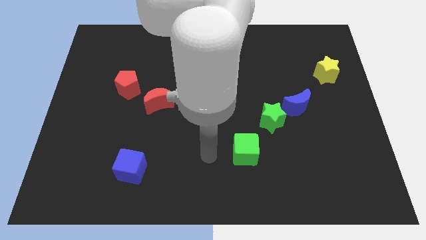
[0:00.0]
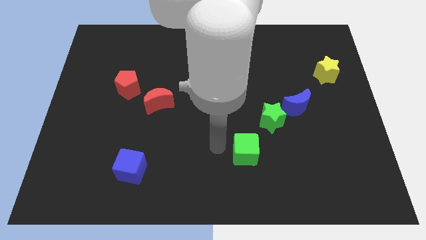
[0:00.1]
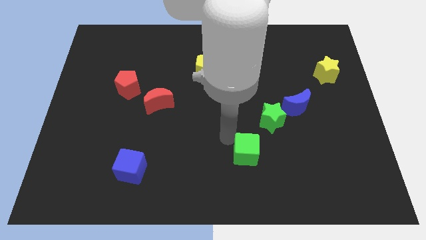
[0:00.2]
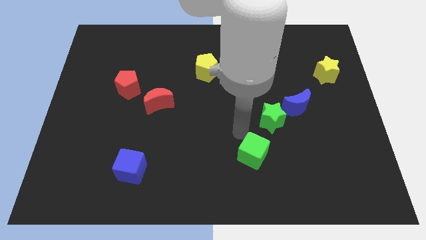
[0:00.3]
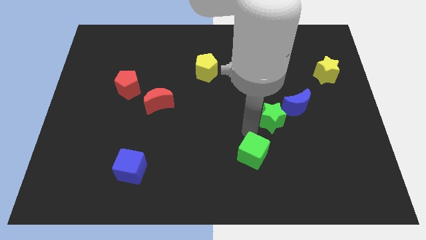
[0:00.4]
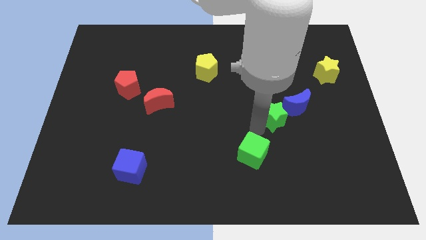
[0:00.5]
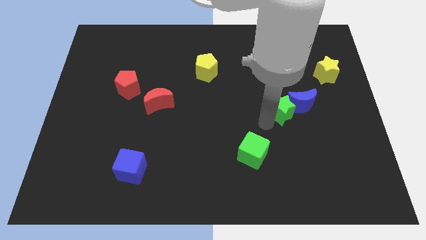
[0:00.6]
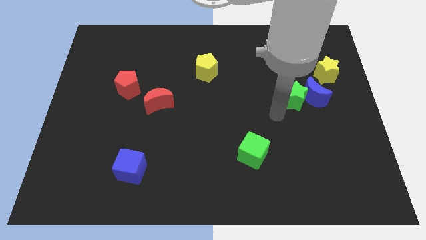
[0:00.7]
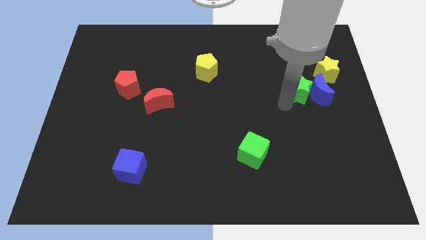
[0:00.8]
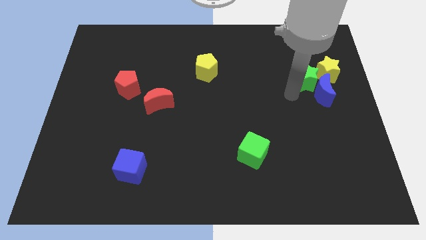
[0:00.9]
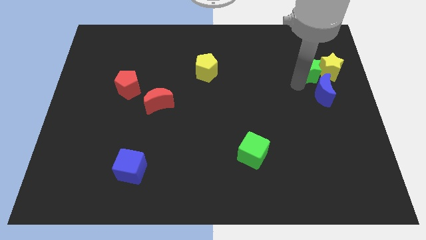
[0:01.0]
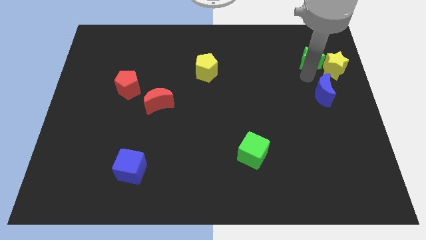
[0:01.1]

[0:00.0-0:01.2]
pull the blue moon apart from the green star

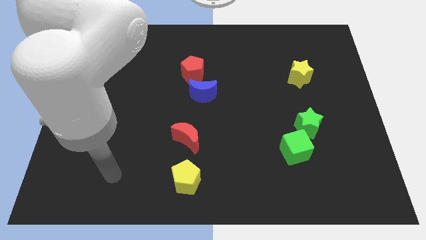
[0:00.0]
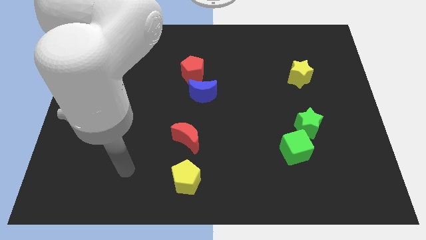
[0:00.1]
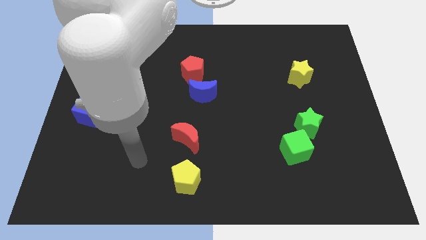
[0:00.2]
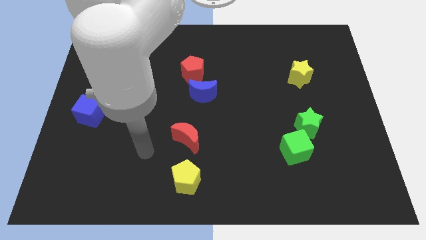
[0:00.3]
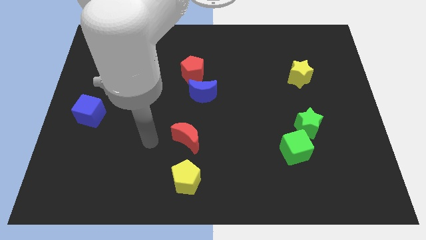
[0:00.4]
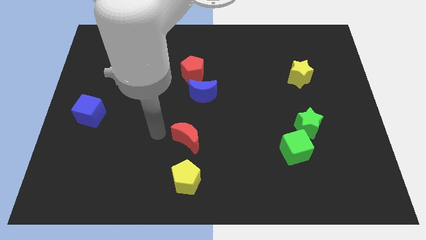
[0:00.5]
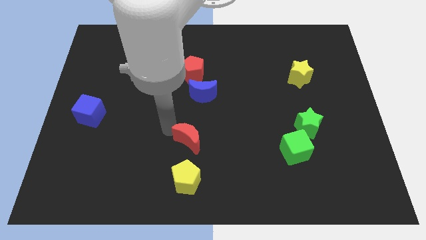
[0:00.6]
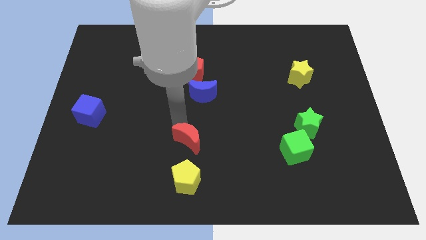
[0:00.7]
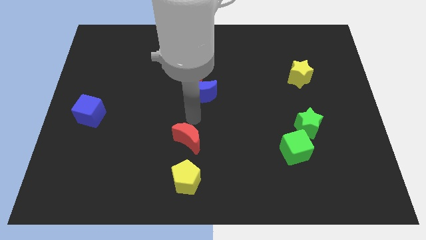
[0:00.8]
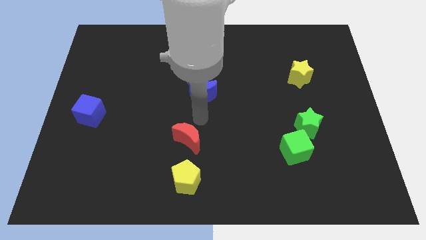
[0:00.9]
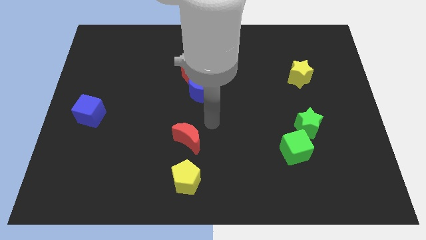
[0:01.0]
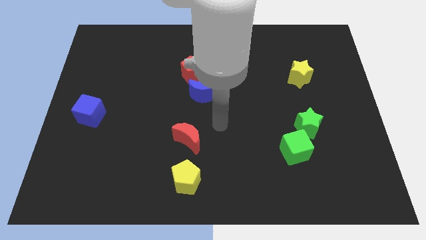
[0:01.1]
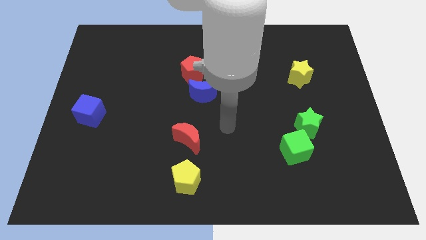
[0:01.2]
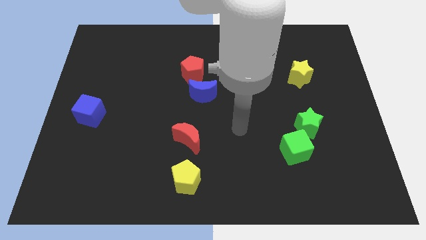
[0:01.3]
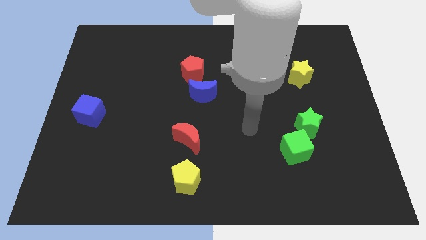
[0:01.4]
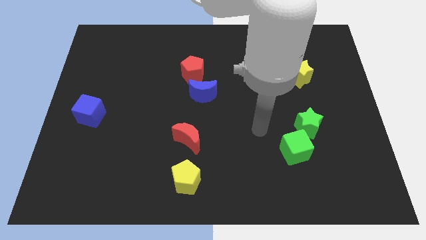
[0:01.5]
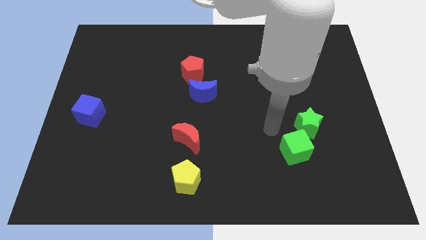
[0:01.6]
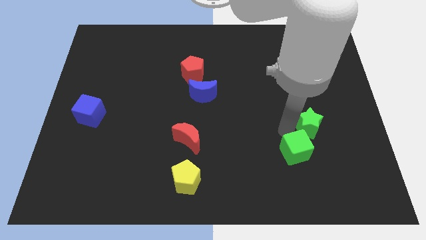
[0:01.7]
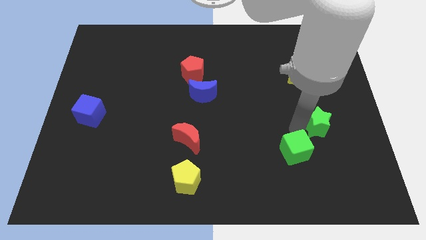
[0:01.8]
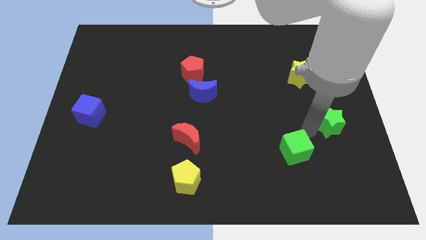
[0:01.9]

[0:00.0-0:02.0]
move the green cube away from the green star

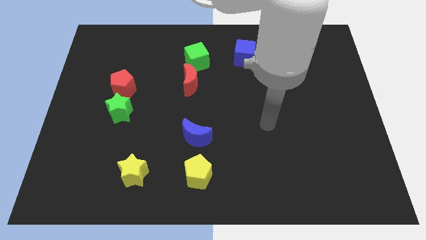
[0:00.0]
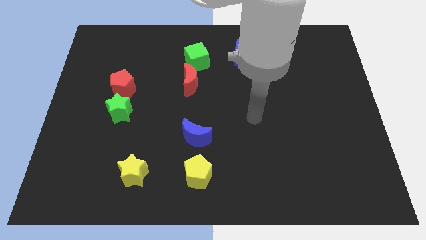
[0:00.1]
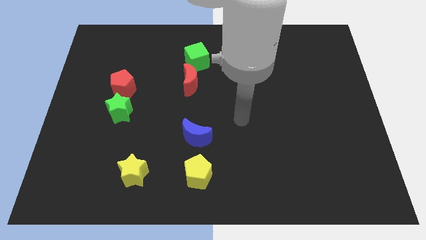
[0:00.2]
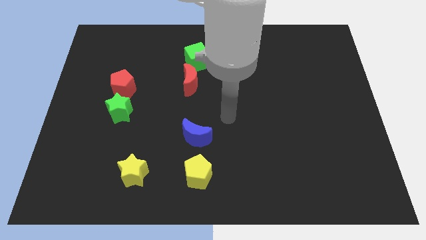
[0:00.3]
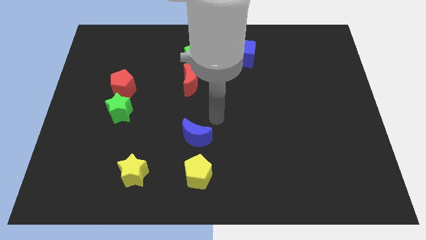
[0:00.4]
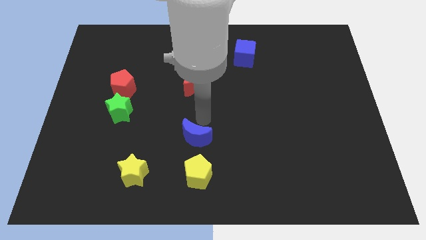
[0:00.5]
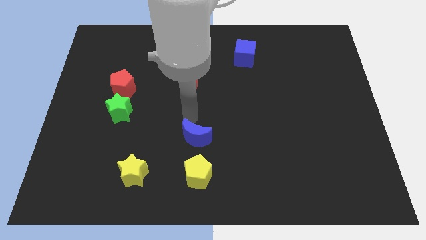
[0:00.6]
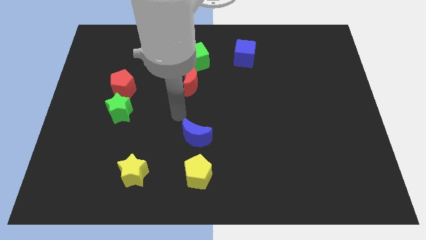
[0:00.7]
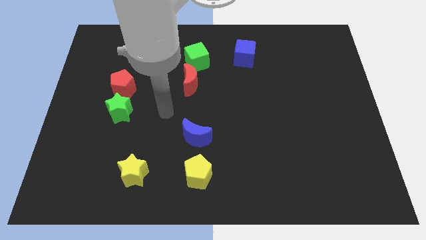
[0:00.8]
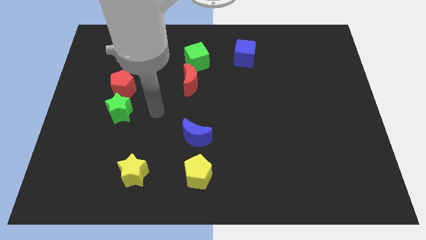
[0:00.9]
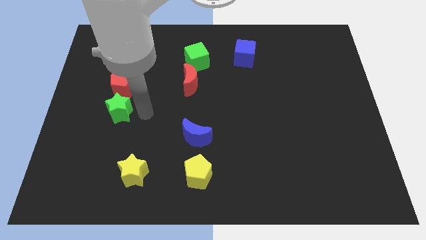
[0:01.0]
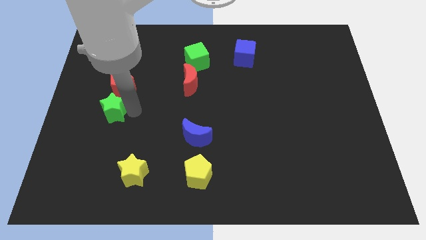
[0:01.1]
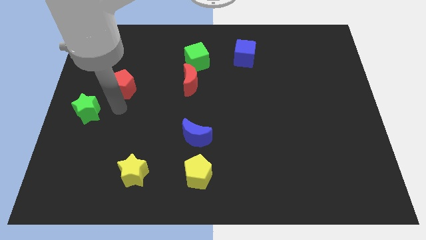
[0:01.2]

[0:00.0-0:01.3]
move the red pentagon away from the green star

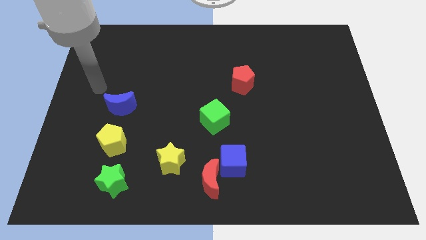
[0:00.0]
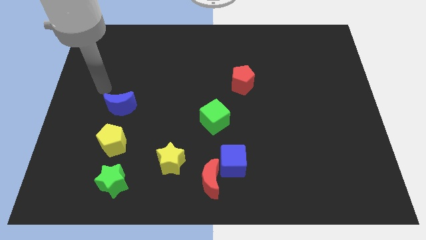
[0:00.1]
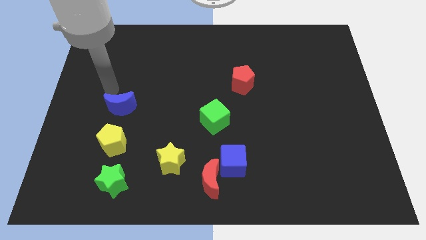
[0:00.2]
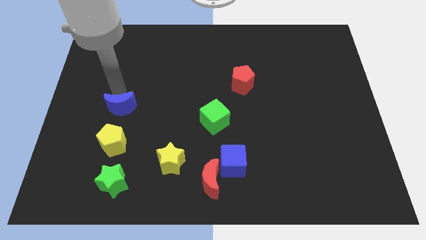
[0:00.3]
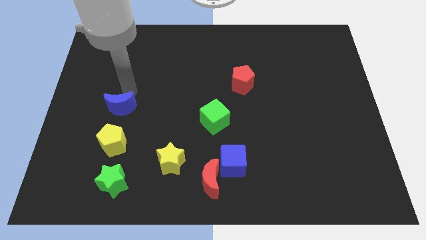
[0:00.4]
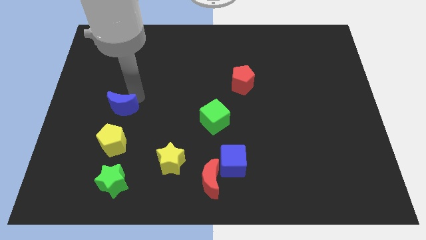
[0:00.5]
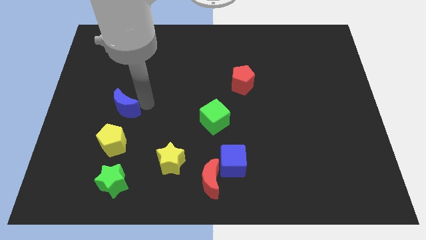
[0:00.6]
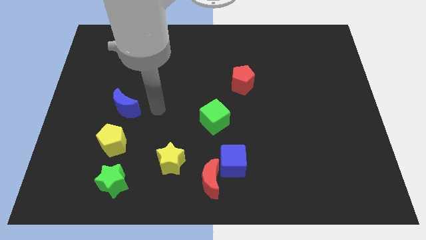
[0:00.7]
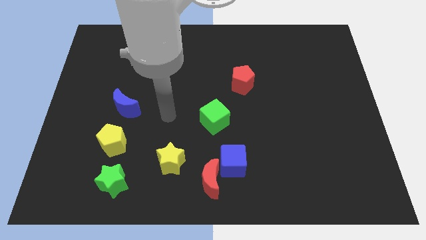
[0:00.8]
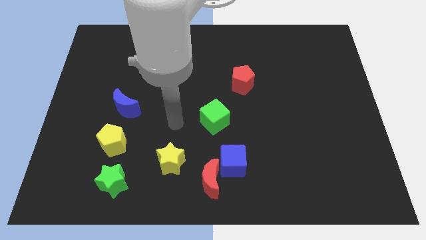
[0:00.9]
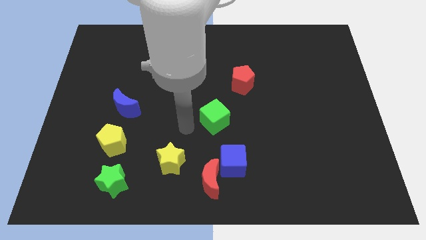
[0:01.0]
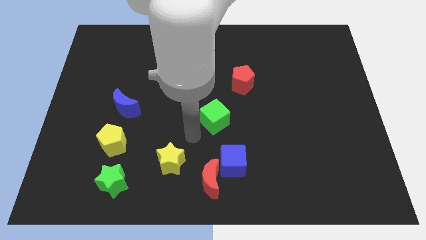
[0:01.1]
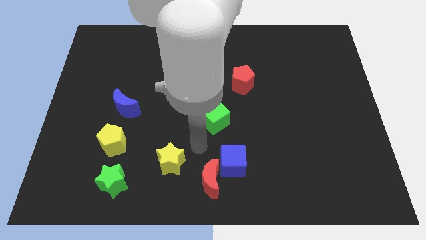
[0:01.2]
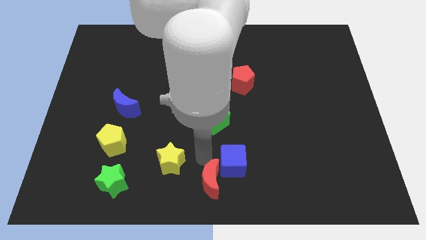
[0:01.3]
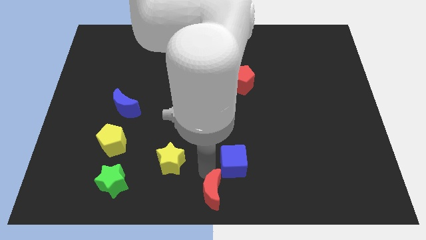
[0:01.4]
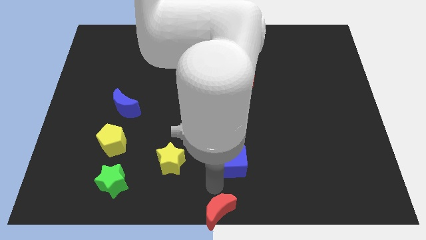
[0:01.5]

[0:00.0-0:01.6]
move the blue cube away from the red moon

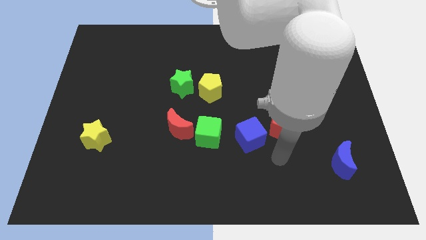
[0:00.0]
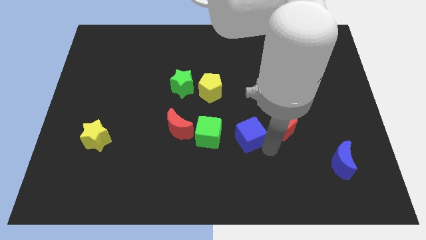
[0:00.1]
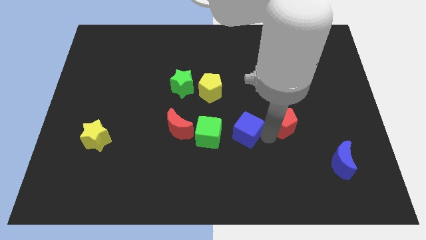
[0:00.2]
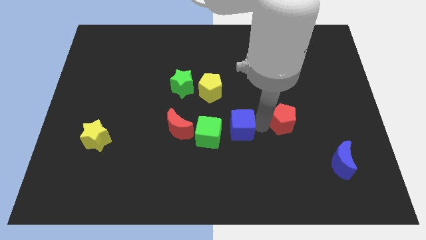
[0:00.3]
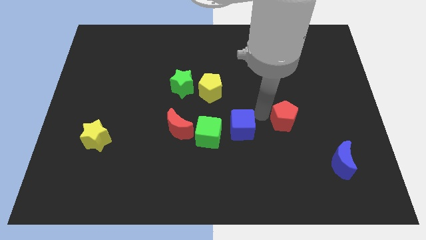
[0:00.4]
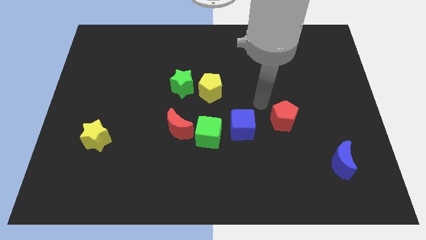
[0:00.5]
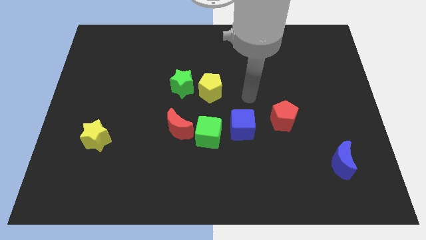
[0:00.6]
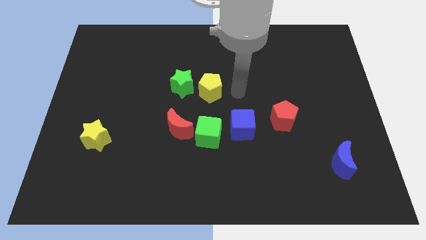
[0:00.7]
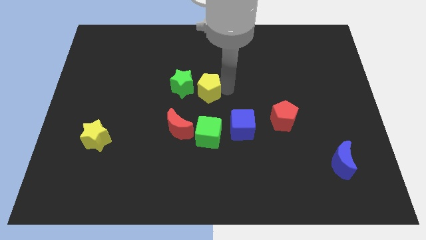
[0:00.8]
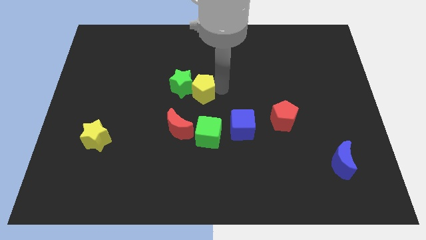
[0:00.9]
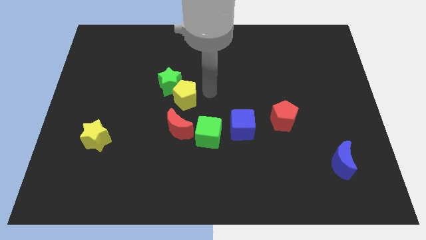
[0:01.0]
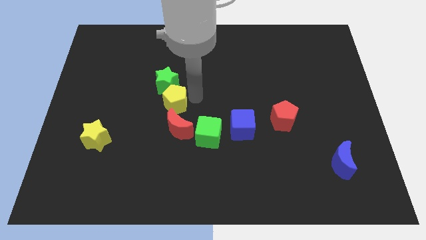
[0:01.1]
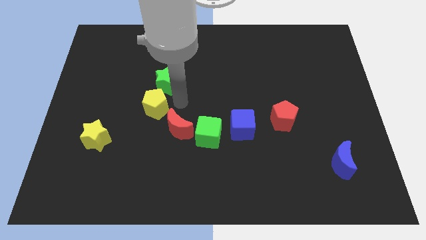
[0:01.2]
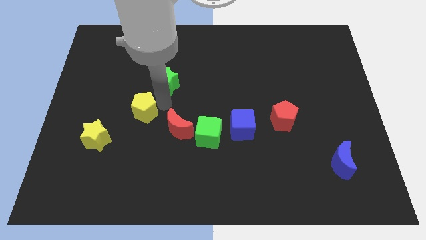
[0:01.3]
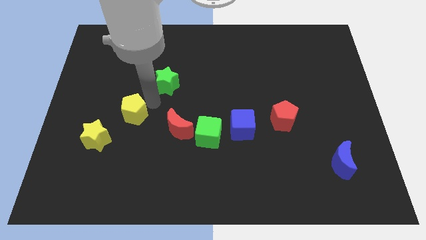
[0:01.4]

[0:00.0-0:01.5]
move the green star away from the yellow pentagon

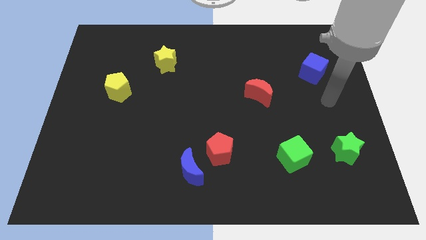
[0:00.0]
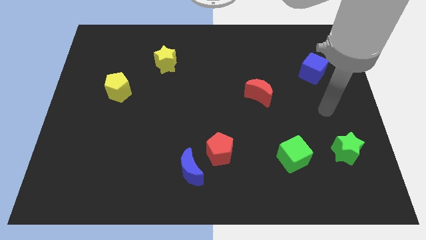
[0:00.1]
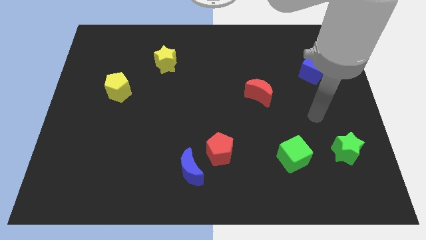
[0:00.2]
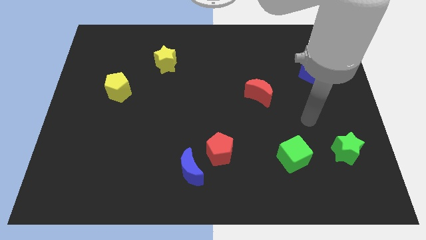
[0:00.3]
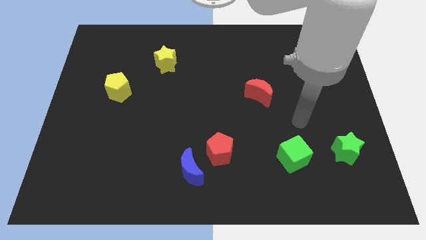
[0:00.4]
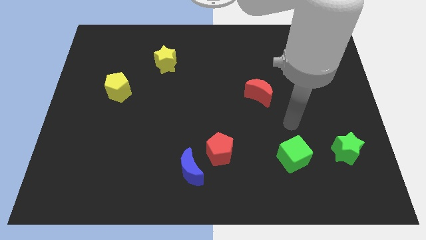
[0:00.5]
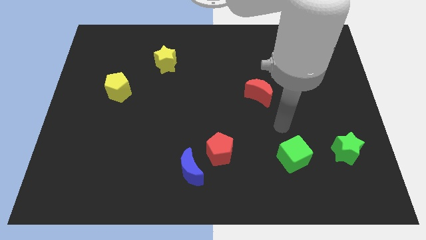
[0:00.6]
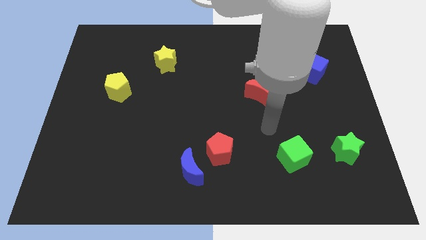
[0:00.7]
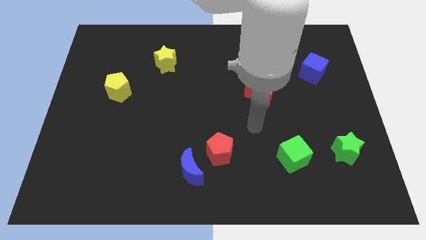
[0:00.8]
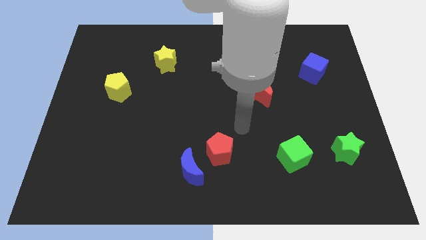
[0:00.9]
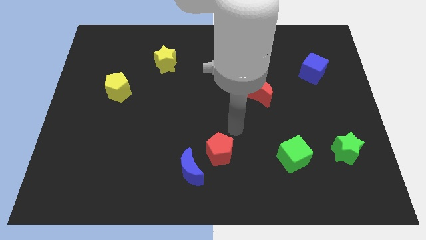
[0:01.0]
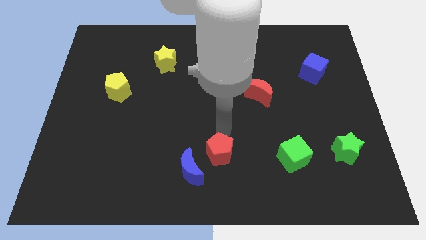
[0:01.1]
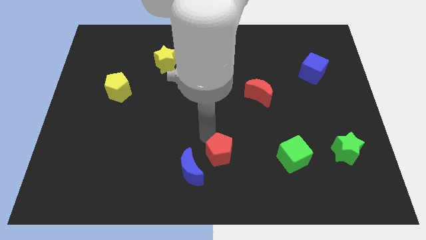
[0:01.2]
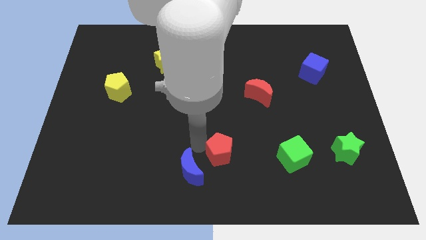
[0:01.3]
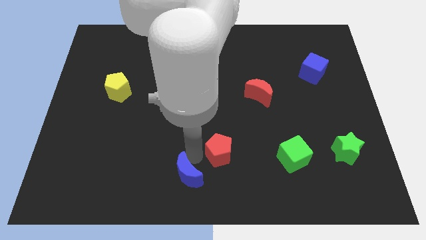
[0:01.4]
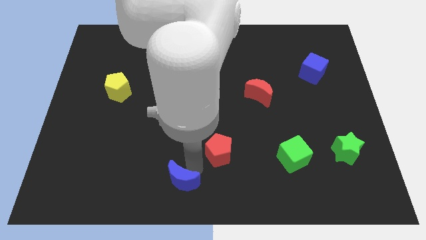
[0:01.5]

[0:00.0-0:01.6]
move the red pentagon away from the blue moon

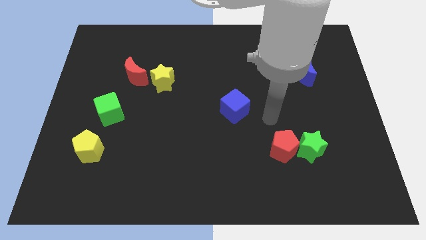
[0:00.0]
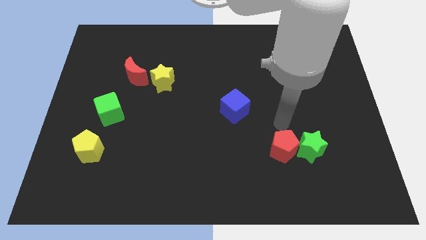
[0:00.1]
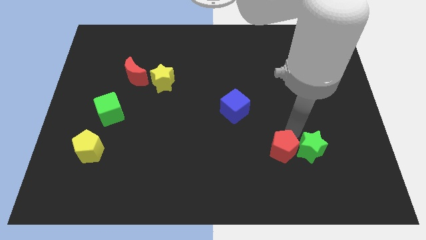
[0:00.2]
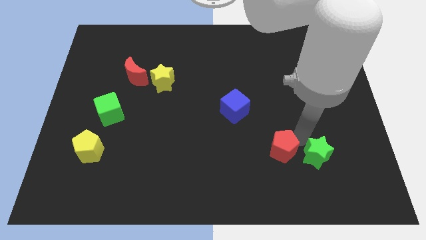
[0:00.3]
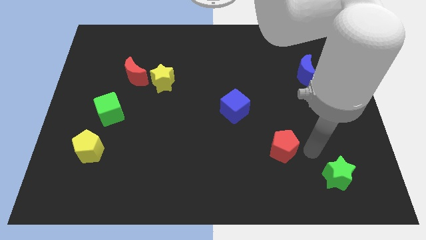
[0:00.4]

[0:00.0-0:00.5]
separate the red pentagon from the green star
